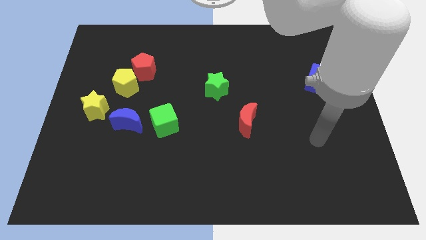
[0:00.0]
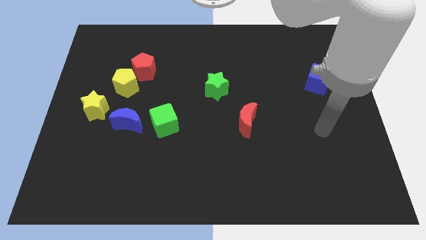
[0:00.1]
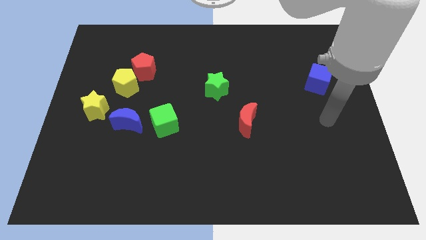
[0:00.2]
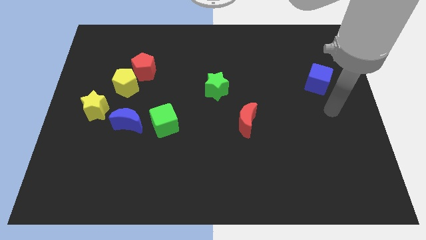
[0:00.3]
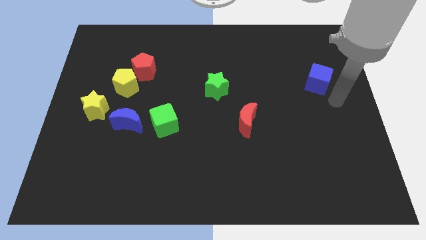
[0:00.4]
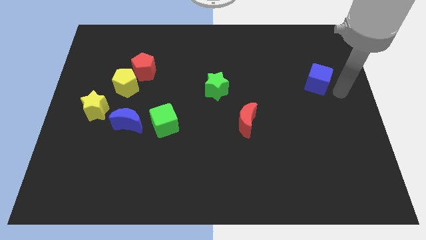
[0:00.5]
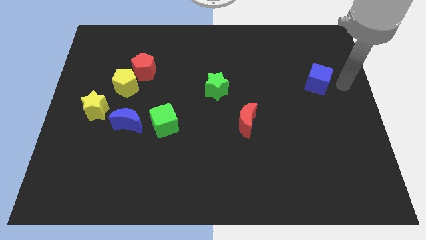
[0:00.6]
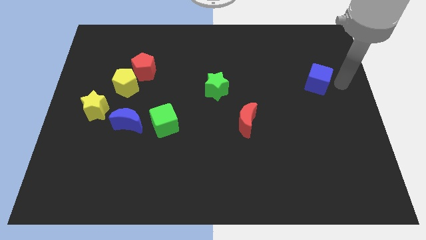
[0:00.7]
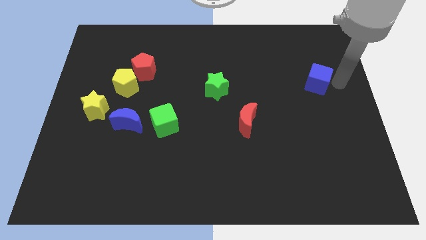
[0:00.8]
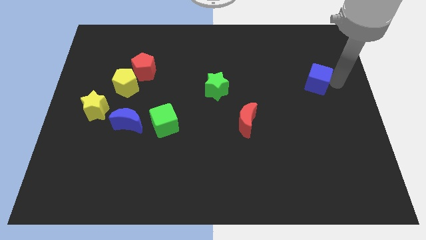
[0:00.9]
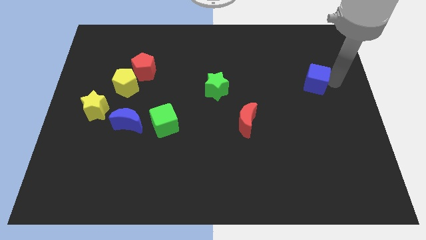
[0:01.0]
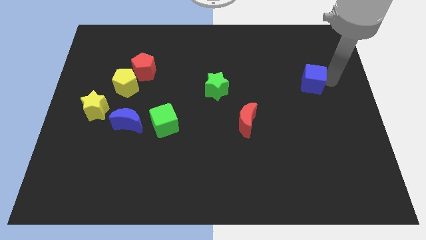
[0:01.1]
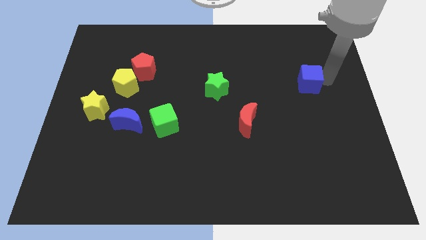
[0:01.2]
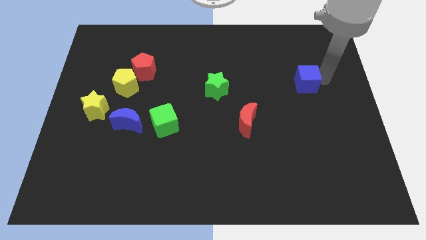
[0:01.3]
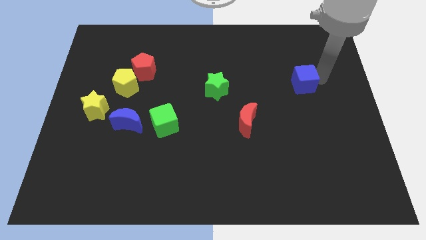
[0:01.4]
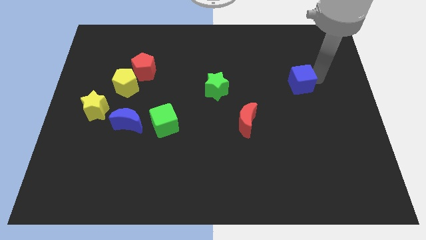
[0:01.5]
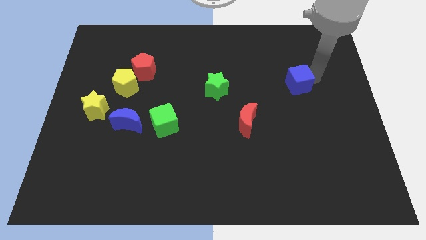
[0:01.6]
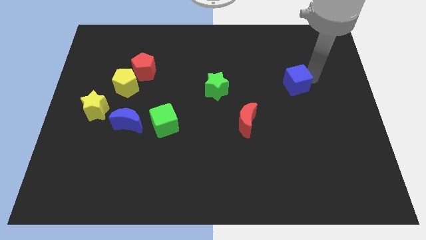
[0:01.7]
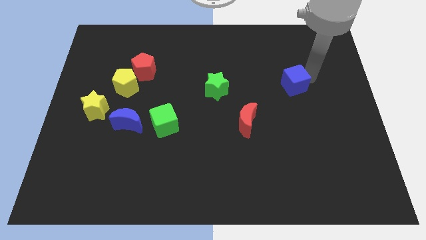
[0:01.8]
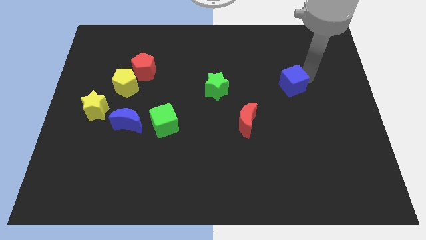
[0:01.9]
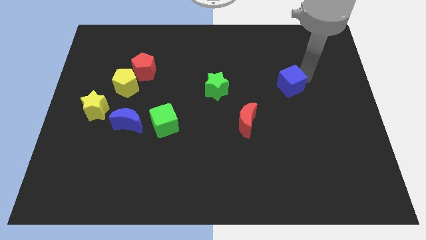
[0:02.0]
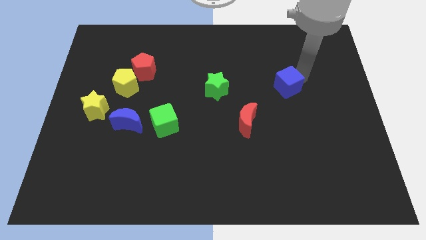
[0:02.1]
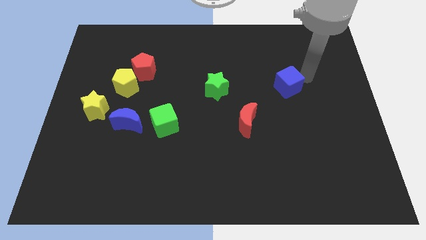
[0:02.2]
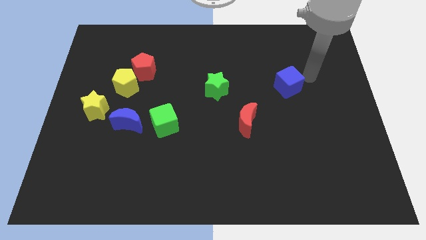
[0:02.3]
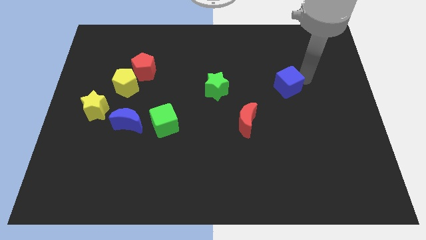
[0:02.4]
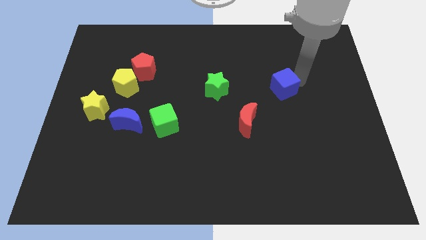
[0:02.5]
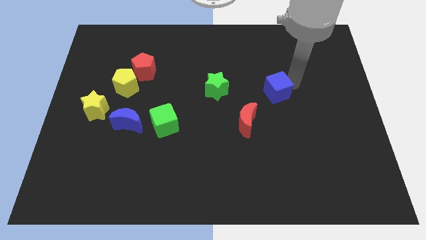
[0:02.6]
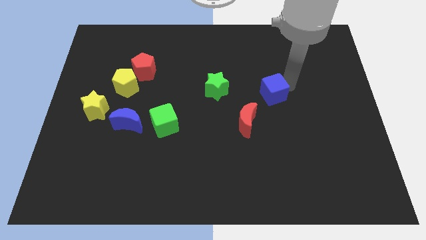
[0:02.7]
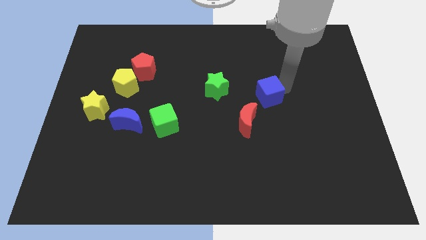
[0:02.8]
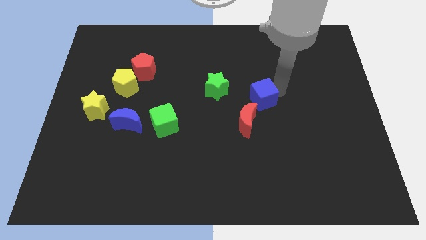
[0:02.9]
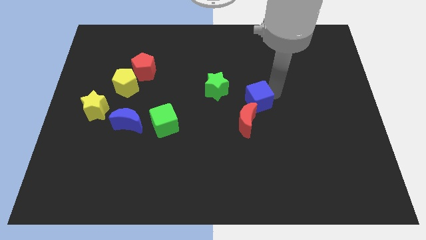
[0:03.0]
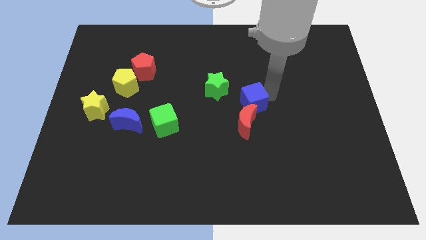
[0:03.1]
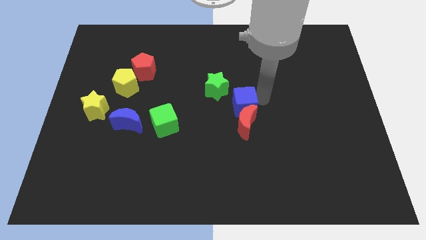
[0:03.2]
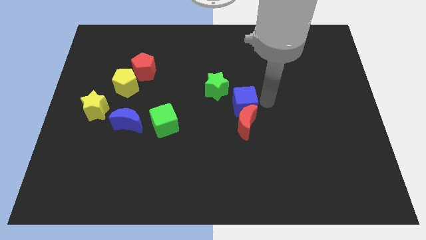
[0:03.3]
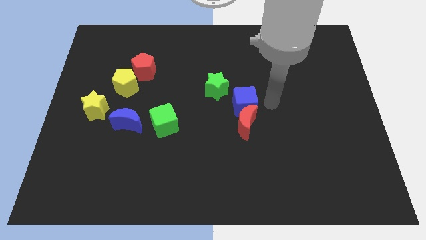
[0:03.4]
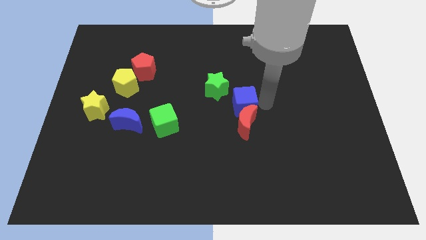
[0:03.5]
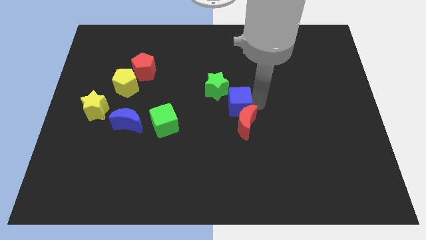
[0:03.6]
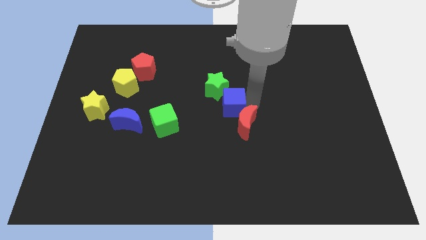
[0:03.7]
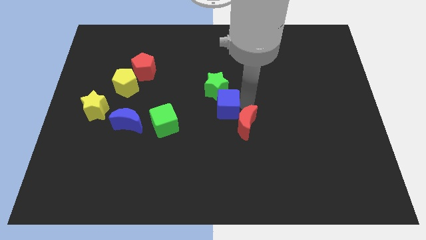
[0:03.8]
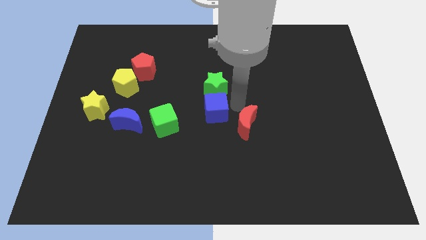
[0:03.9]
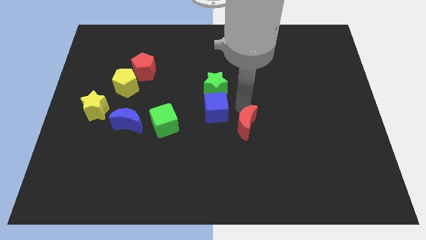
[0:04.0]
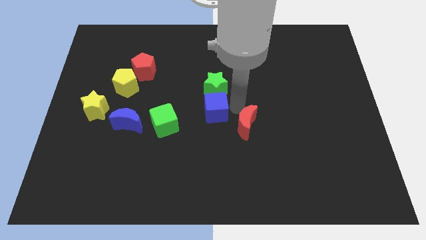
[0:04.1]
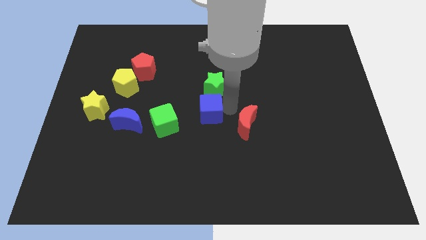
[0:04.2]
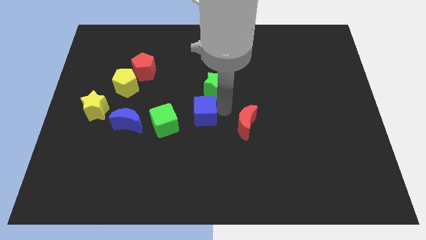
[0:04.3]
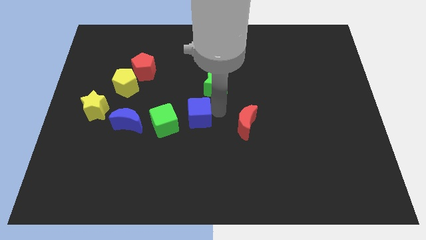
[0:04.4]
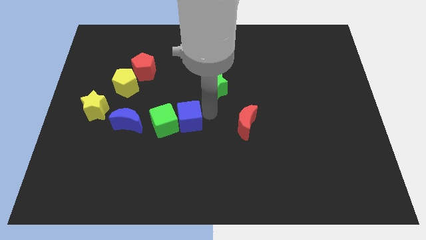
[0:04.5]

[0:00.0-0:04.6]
put the blue cube towards the green cube

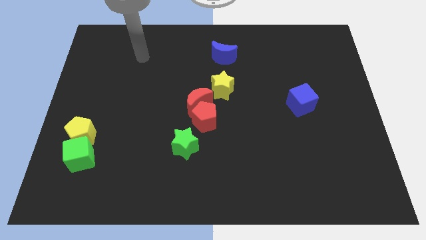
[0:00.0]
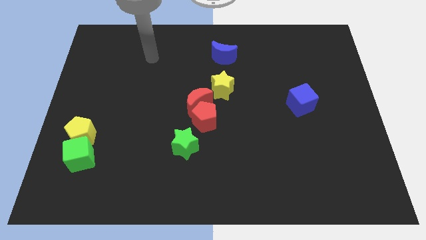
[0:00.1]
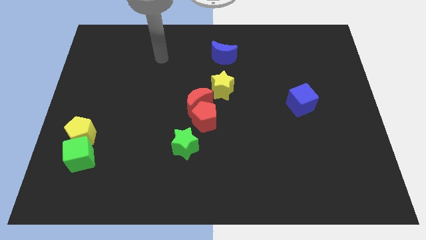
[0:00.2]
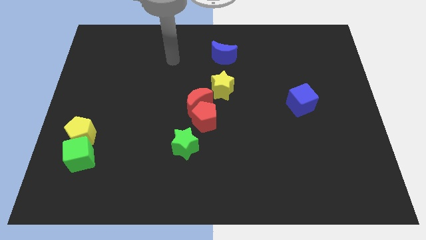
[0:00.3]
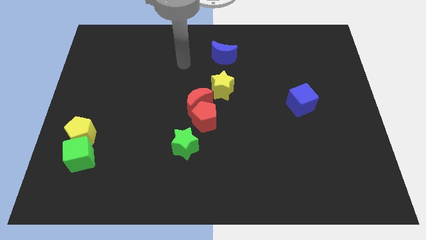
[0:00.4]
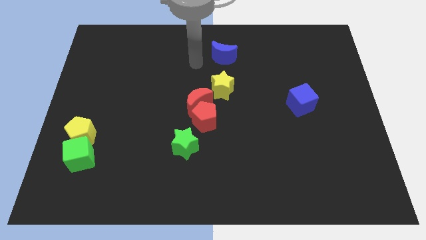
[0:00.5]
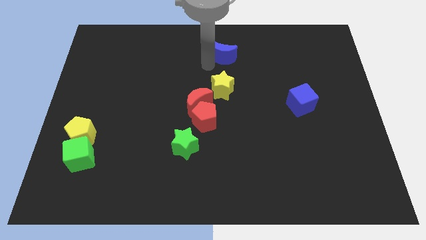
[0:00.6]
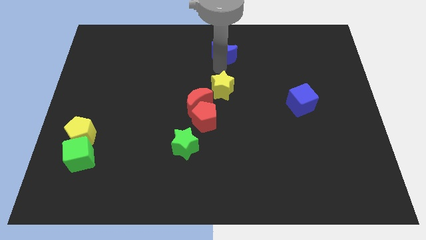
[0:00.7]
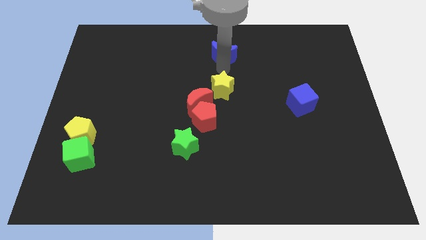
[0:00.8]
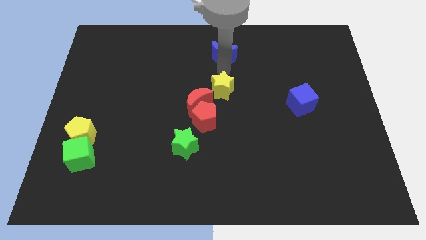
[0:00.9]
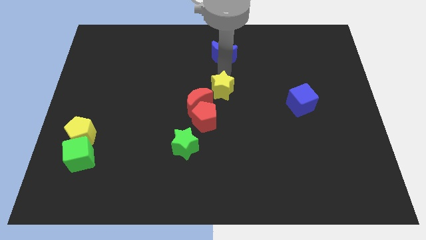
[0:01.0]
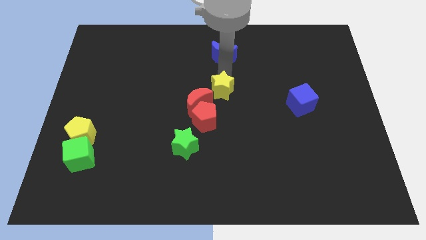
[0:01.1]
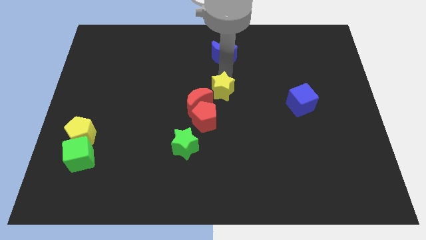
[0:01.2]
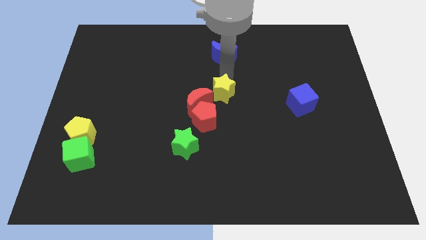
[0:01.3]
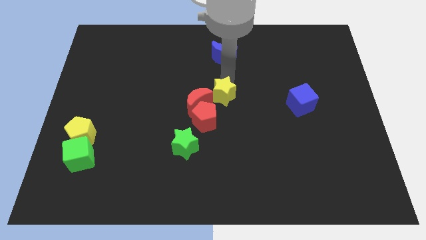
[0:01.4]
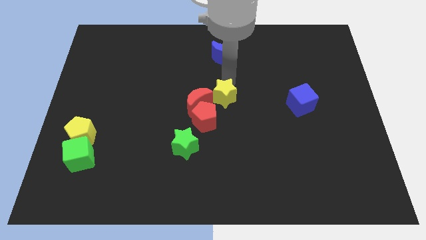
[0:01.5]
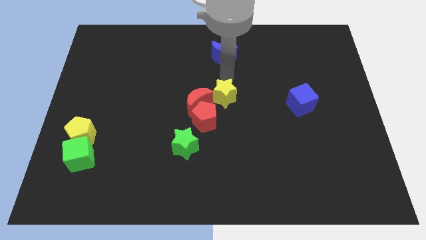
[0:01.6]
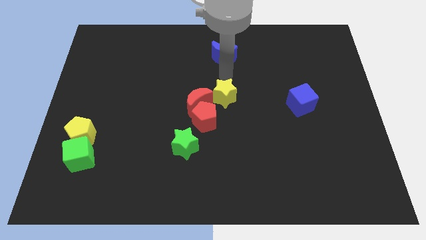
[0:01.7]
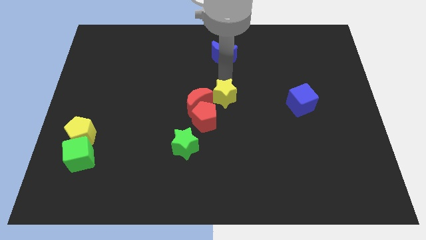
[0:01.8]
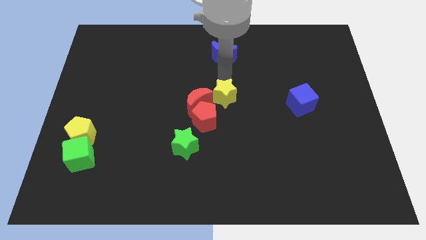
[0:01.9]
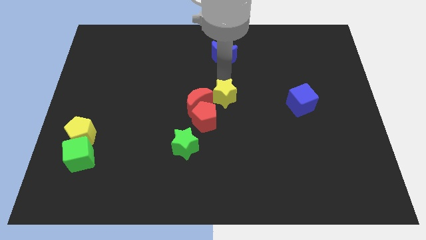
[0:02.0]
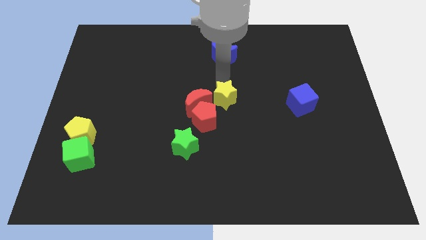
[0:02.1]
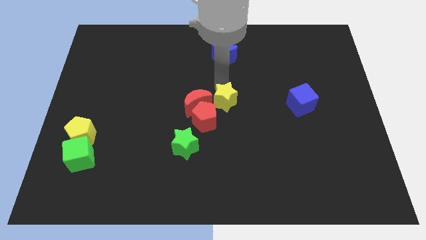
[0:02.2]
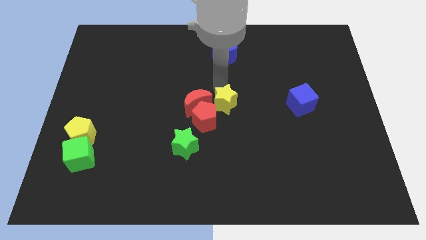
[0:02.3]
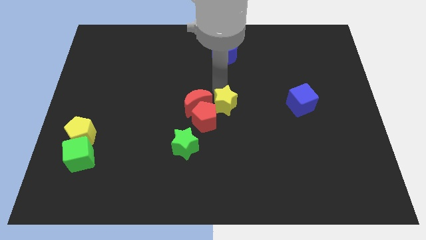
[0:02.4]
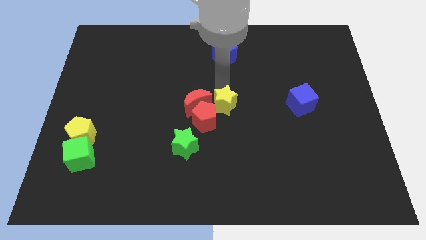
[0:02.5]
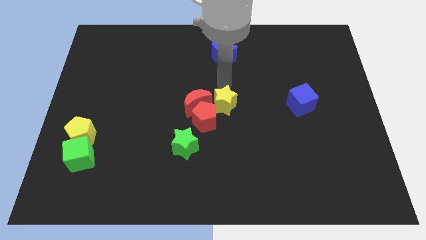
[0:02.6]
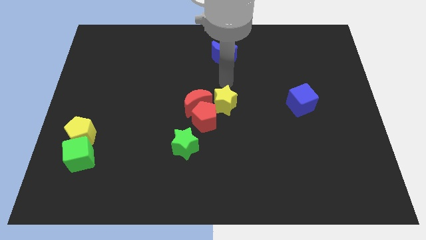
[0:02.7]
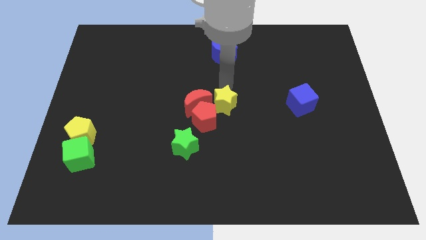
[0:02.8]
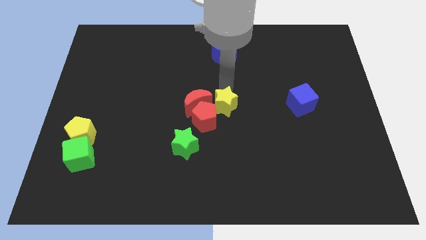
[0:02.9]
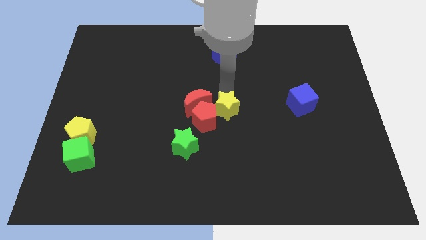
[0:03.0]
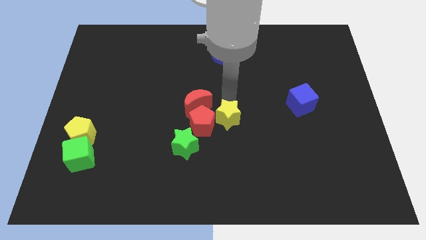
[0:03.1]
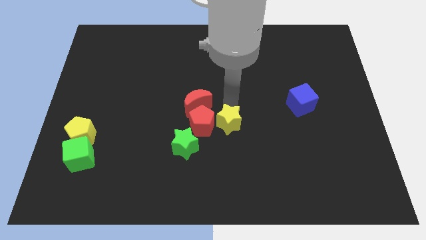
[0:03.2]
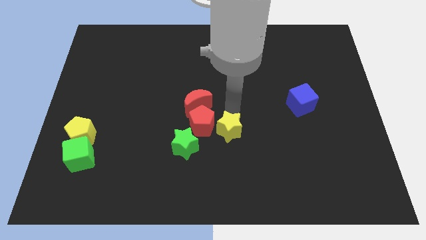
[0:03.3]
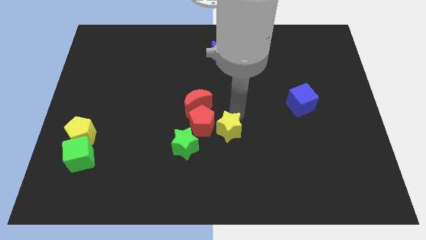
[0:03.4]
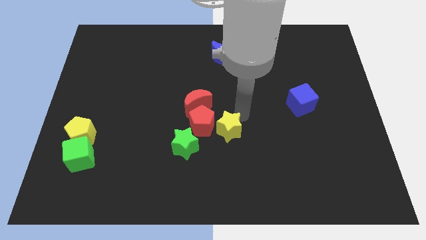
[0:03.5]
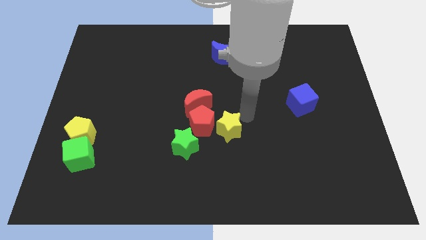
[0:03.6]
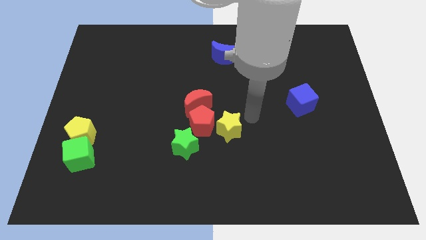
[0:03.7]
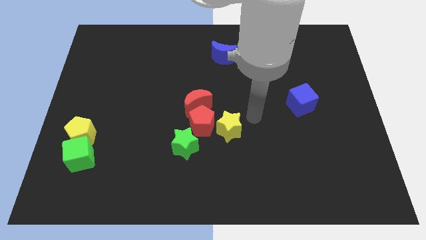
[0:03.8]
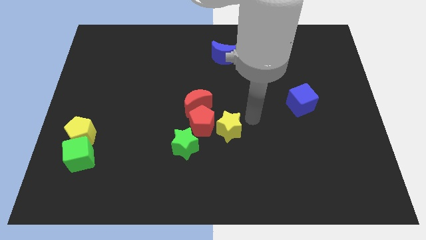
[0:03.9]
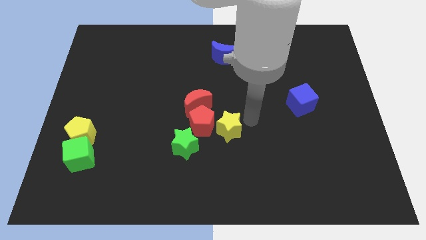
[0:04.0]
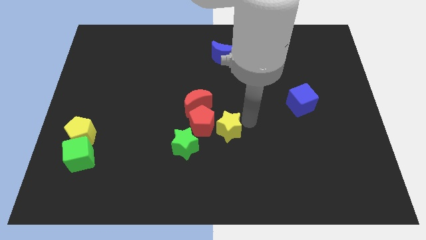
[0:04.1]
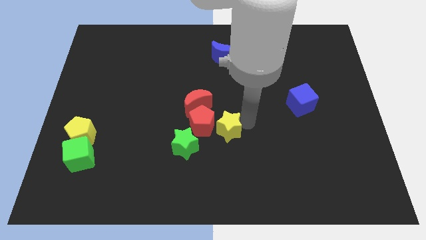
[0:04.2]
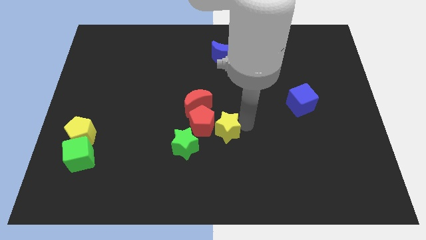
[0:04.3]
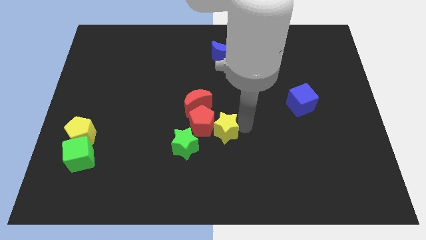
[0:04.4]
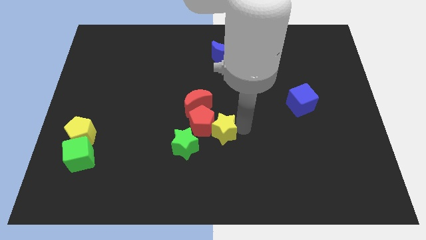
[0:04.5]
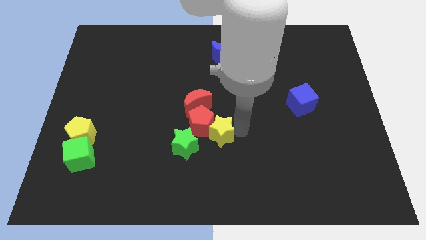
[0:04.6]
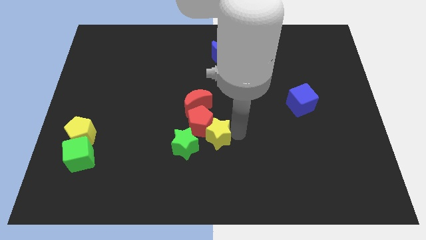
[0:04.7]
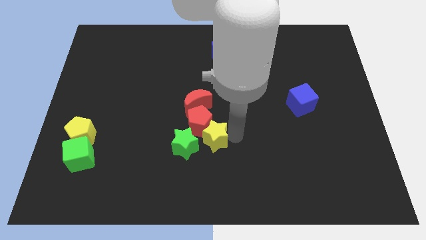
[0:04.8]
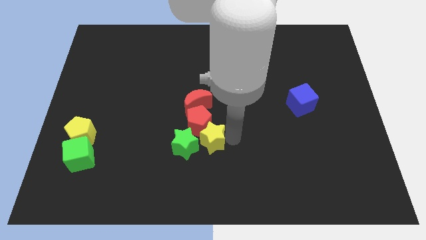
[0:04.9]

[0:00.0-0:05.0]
move the yellow star close to the green star
